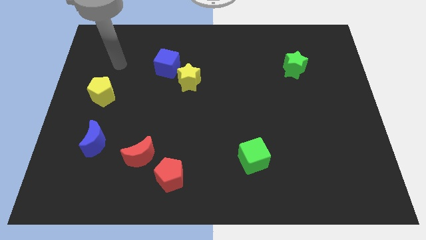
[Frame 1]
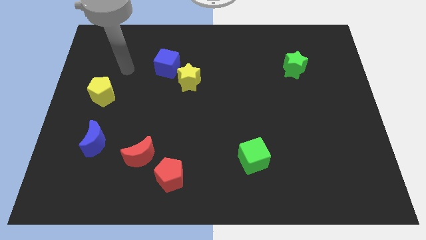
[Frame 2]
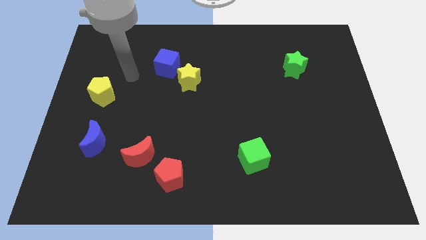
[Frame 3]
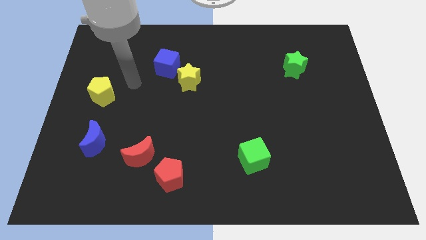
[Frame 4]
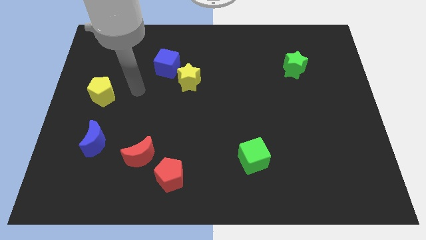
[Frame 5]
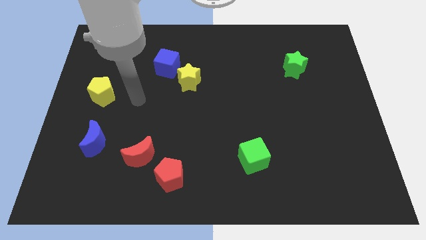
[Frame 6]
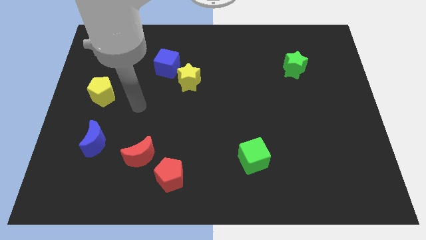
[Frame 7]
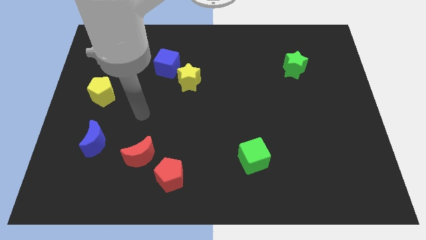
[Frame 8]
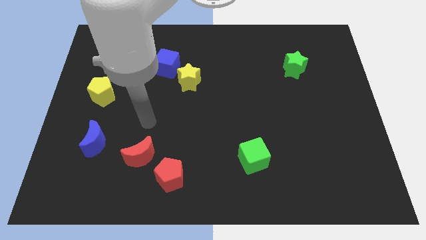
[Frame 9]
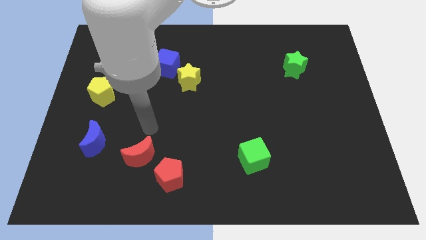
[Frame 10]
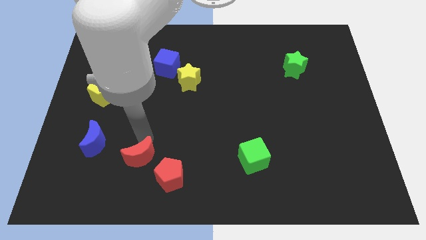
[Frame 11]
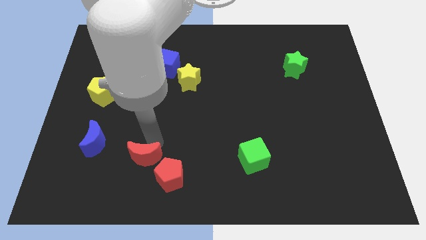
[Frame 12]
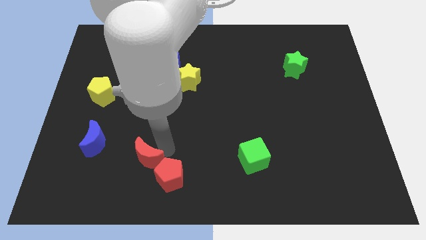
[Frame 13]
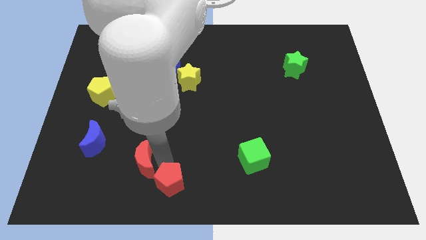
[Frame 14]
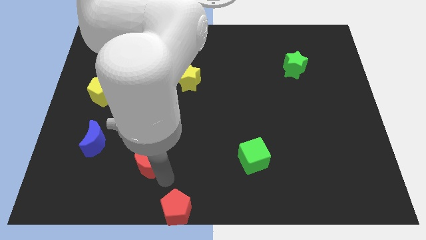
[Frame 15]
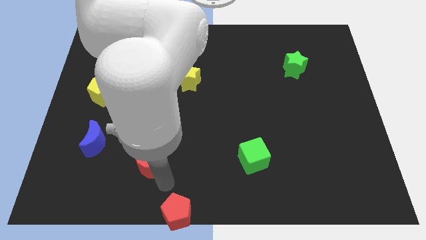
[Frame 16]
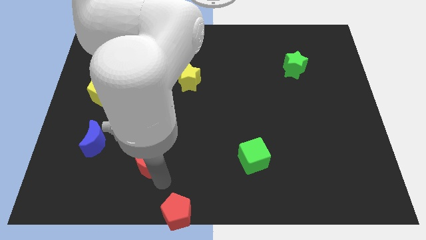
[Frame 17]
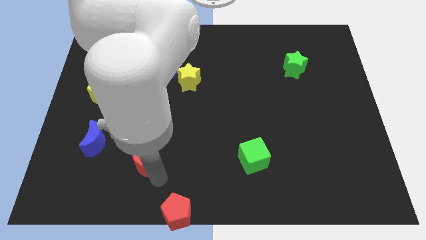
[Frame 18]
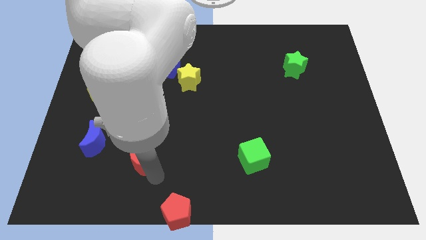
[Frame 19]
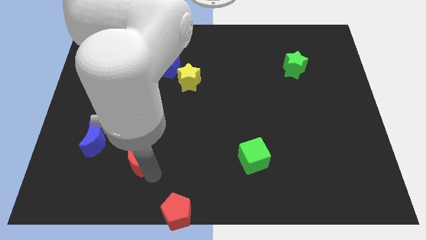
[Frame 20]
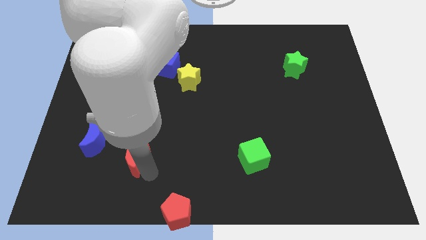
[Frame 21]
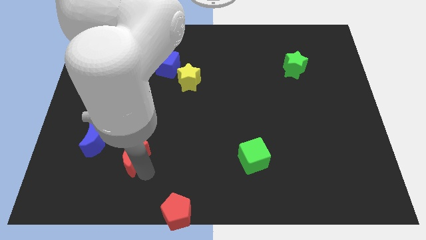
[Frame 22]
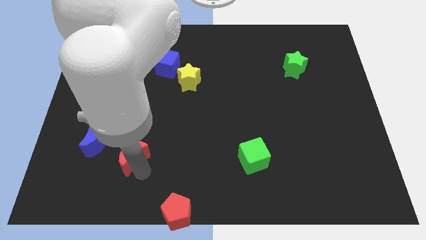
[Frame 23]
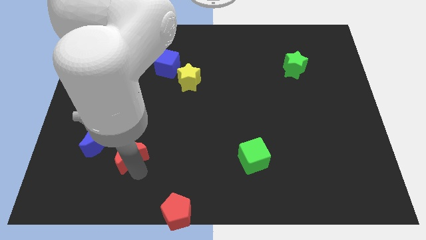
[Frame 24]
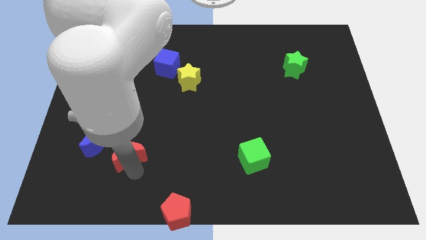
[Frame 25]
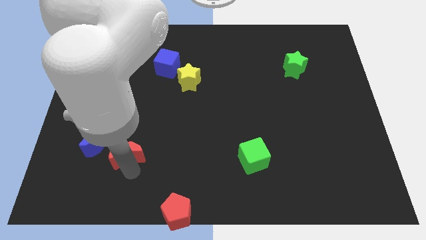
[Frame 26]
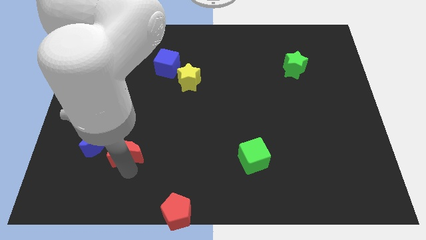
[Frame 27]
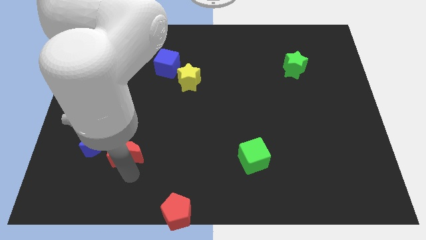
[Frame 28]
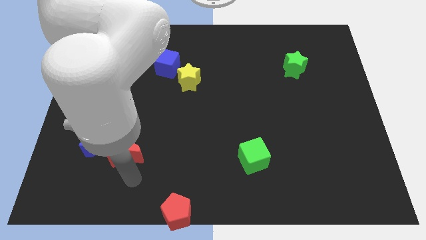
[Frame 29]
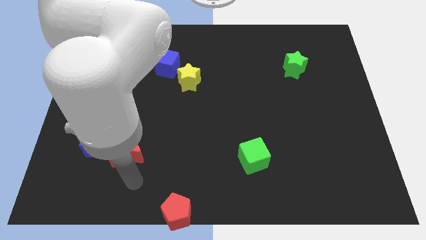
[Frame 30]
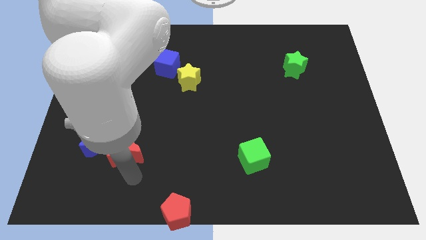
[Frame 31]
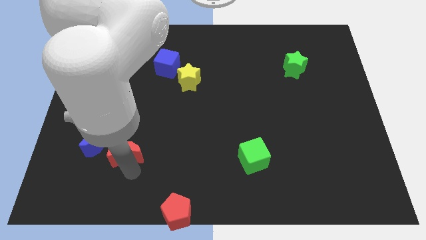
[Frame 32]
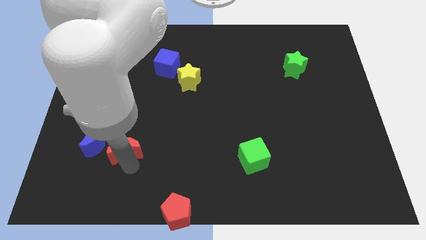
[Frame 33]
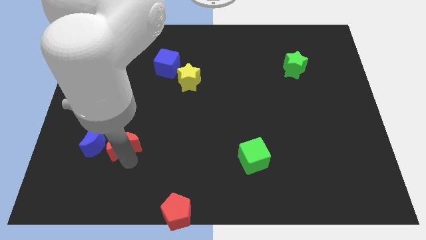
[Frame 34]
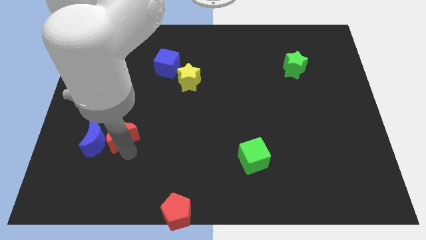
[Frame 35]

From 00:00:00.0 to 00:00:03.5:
slightly move the red moon upwards and to the left

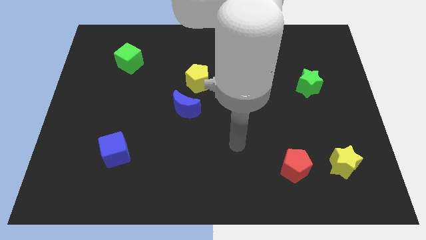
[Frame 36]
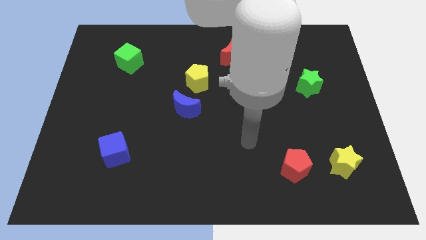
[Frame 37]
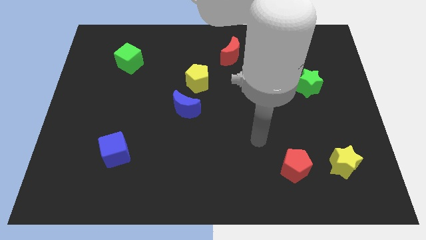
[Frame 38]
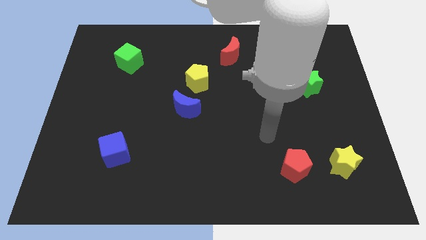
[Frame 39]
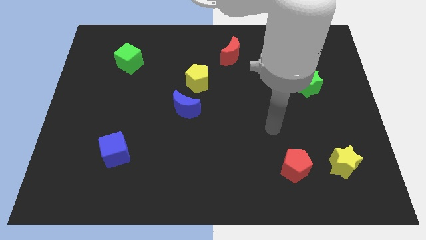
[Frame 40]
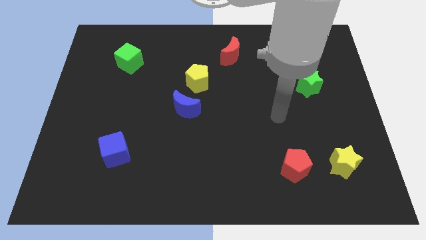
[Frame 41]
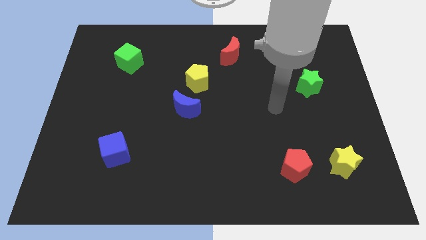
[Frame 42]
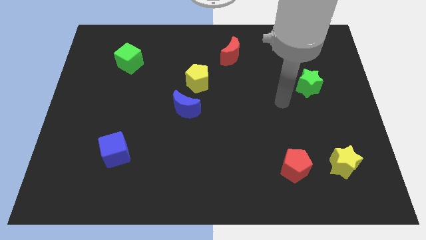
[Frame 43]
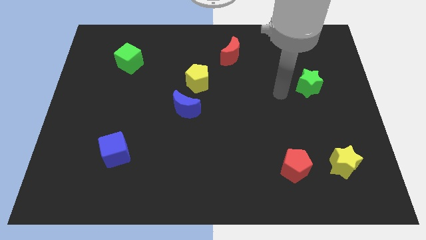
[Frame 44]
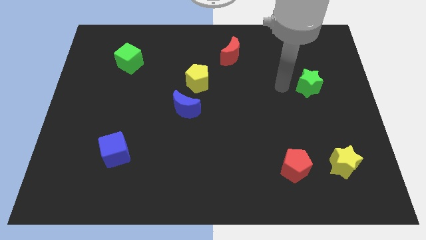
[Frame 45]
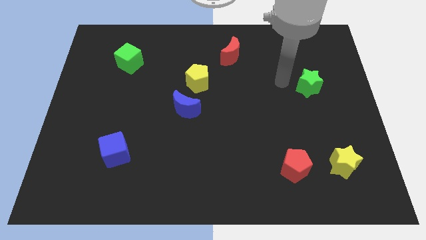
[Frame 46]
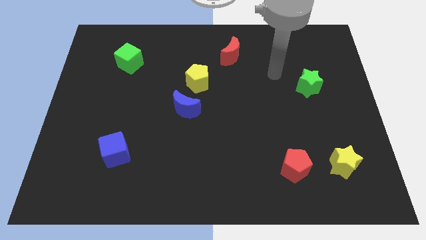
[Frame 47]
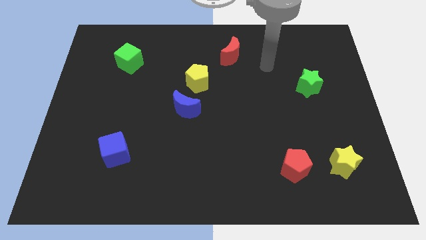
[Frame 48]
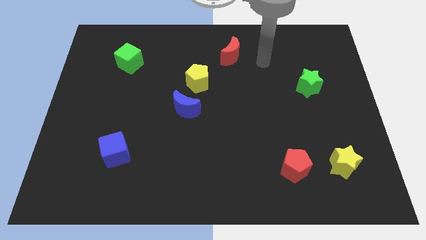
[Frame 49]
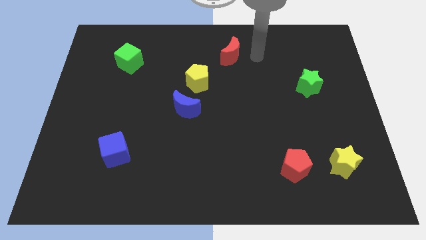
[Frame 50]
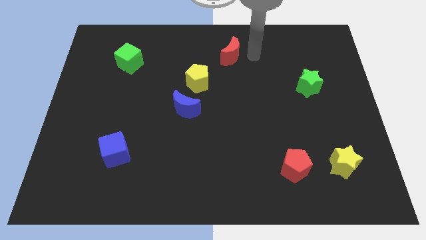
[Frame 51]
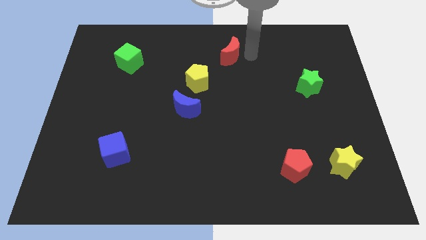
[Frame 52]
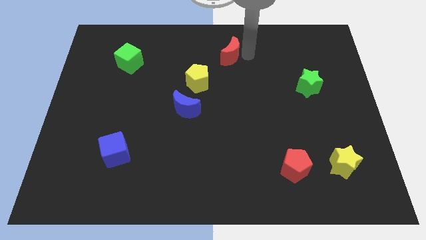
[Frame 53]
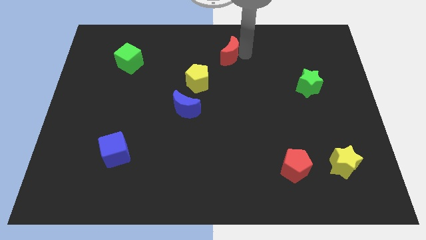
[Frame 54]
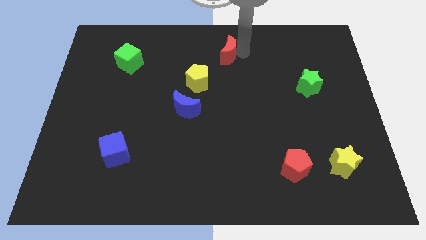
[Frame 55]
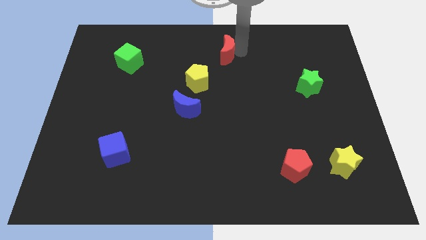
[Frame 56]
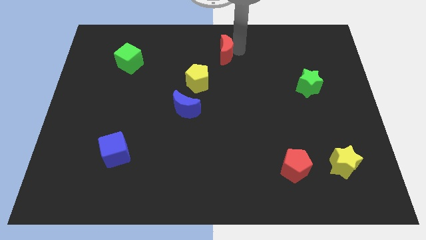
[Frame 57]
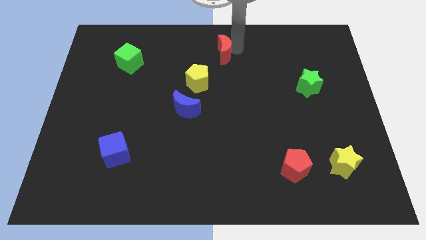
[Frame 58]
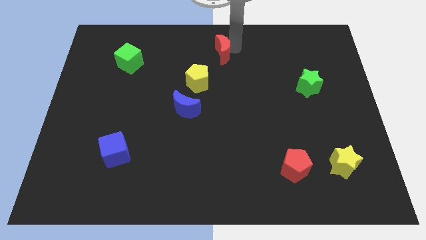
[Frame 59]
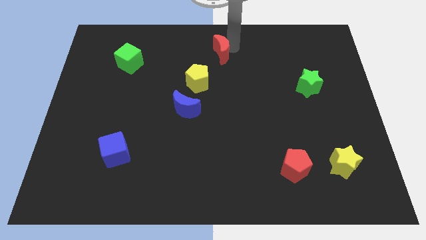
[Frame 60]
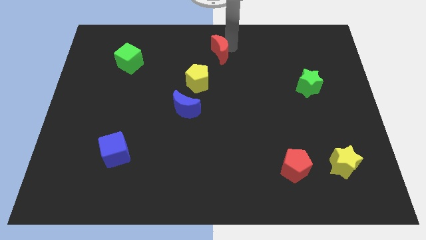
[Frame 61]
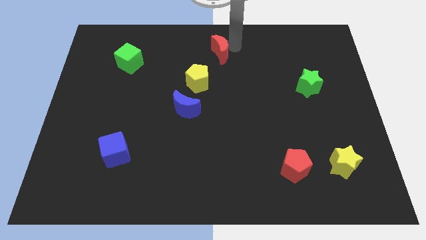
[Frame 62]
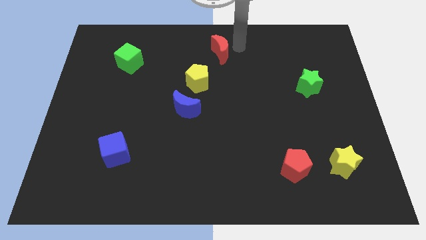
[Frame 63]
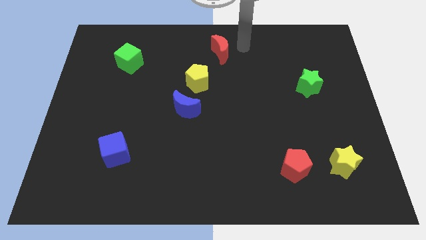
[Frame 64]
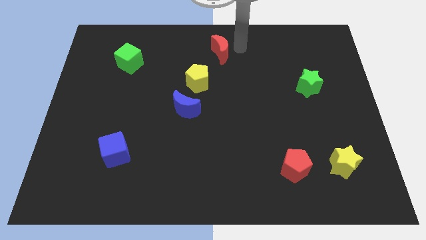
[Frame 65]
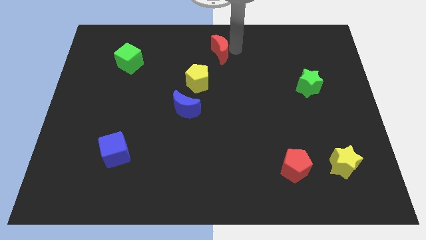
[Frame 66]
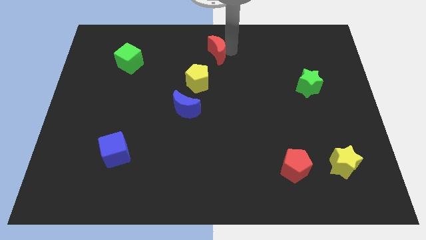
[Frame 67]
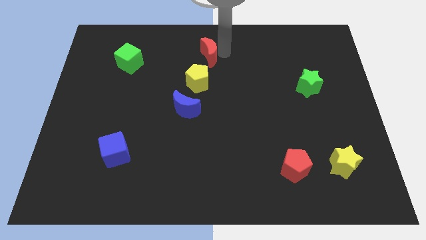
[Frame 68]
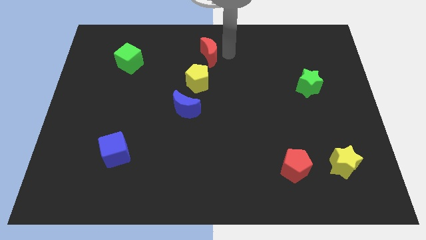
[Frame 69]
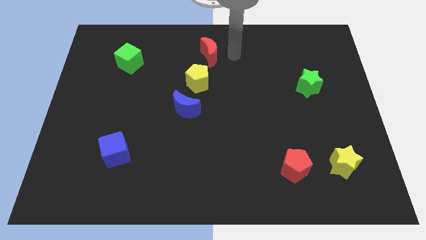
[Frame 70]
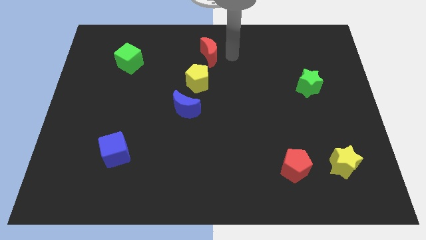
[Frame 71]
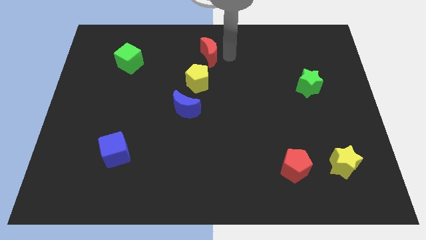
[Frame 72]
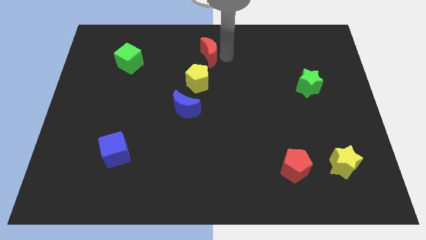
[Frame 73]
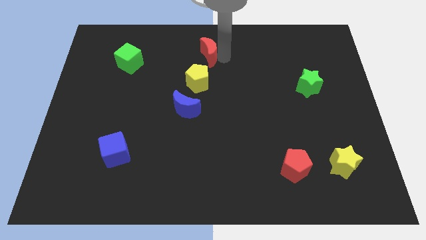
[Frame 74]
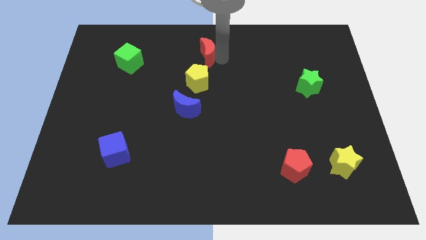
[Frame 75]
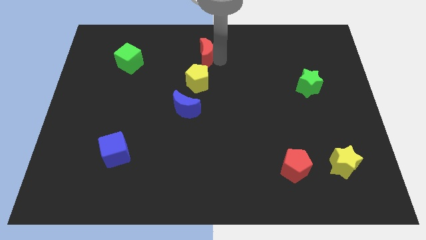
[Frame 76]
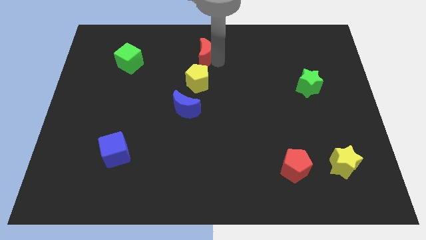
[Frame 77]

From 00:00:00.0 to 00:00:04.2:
slightly push the red moon to the left

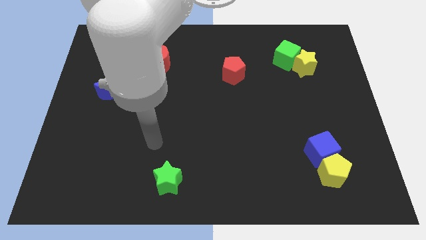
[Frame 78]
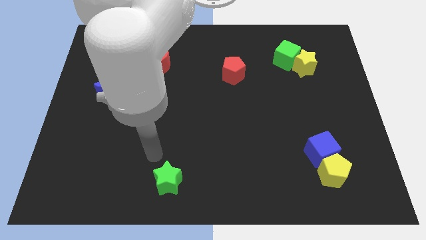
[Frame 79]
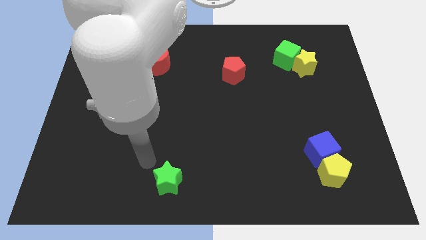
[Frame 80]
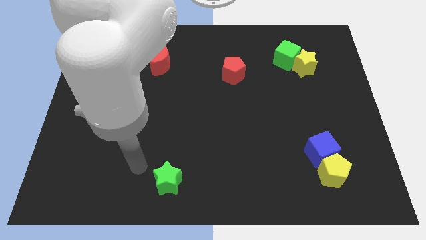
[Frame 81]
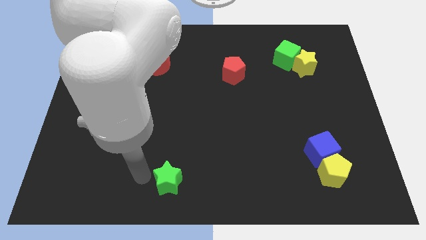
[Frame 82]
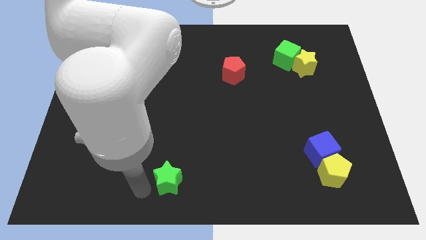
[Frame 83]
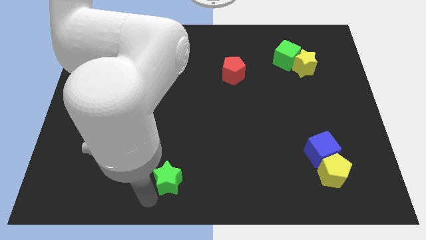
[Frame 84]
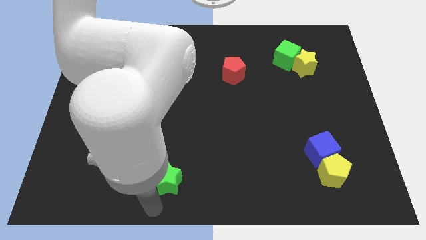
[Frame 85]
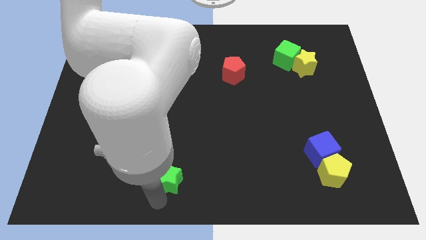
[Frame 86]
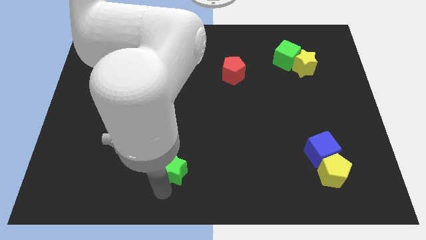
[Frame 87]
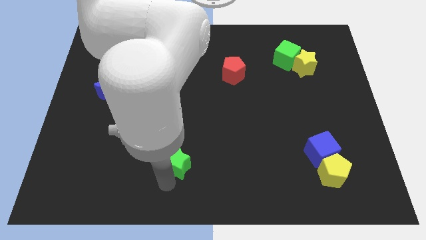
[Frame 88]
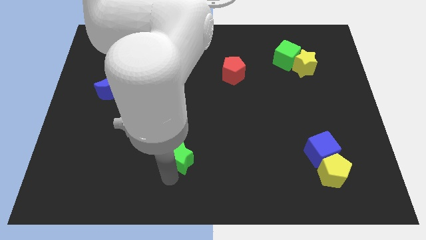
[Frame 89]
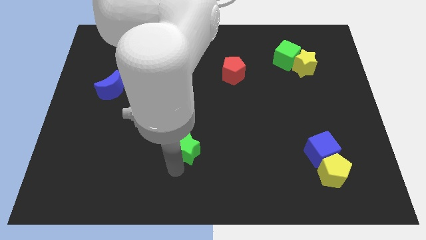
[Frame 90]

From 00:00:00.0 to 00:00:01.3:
slightly slide the green star upwards
